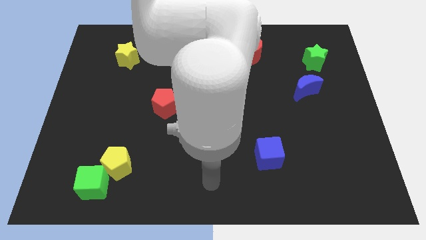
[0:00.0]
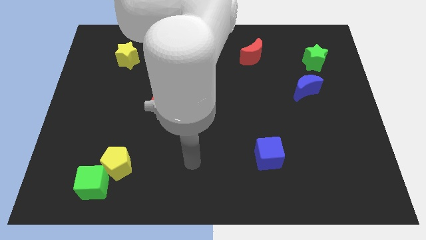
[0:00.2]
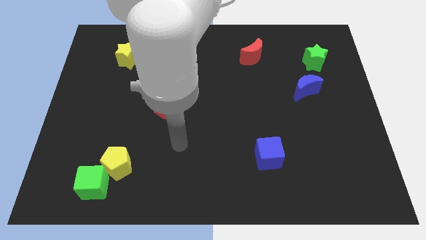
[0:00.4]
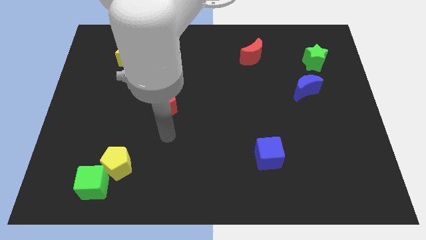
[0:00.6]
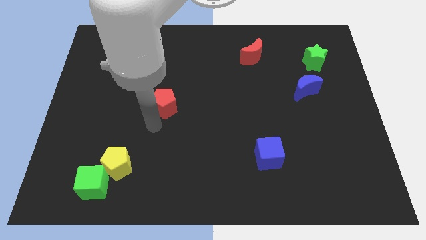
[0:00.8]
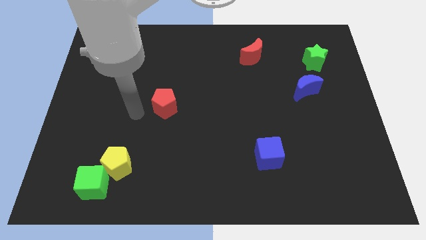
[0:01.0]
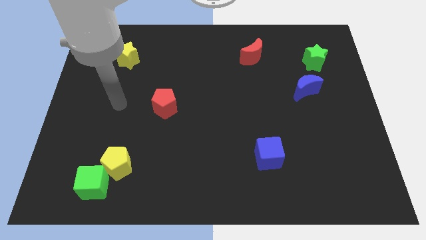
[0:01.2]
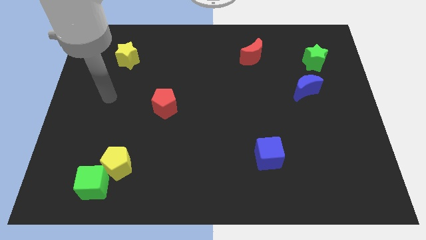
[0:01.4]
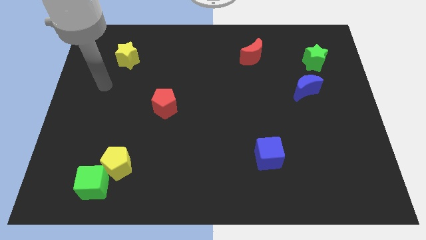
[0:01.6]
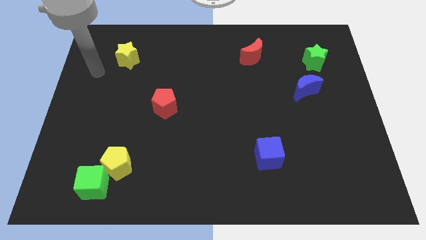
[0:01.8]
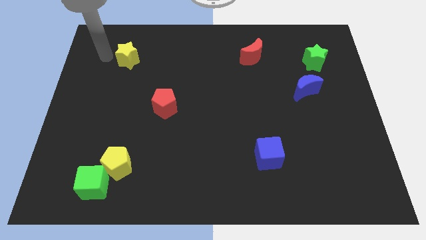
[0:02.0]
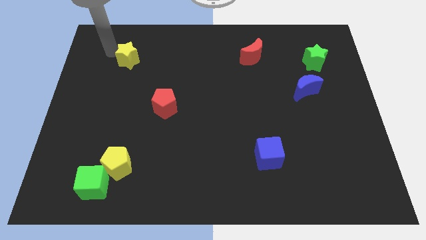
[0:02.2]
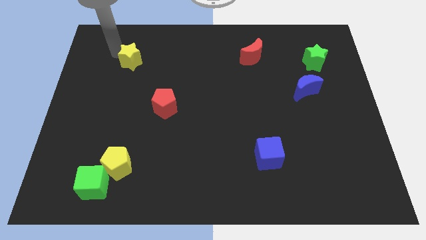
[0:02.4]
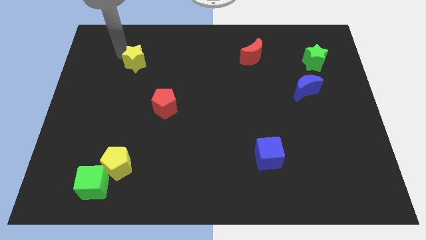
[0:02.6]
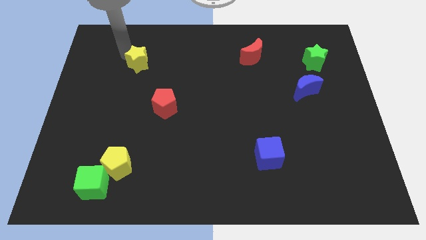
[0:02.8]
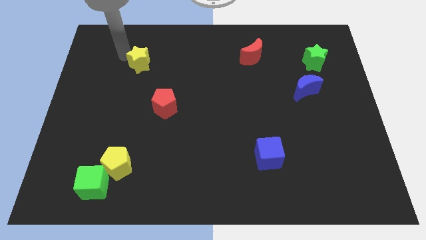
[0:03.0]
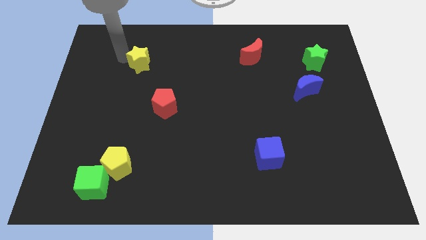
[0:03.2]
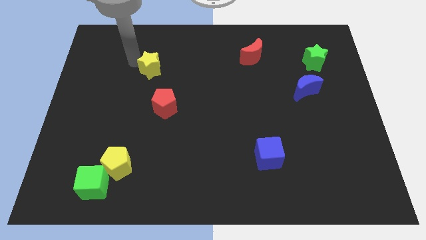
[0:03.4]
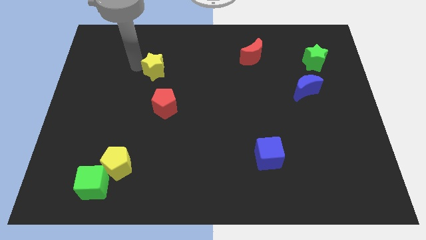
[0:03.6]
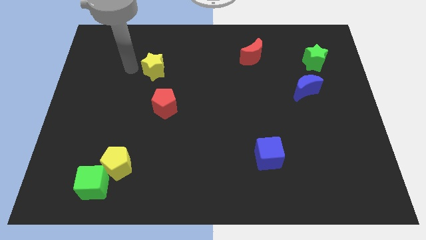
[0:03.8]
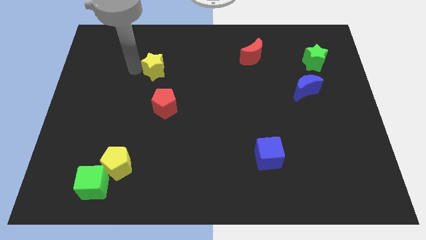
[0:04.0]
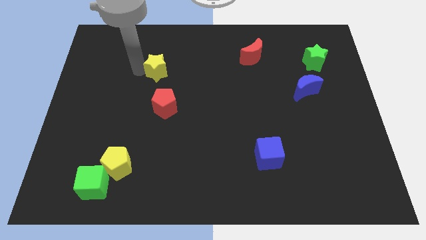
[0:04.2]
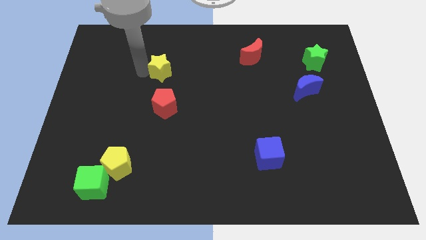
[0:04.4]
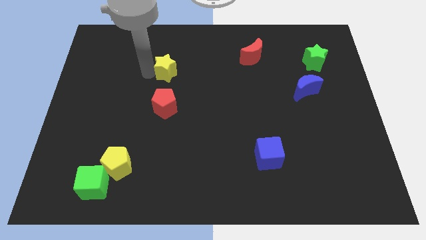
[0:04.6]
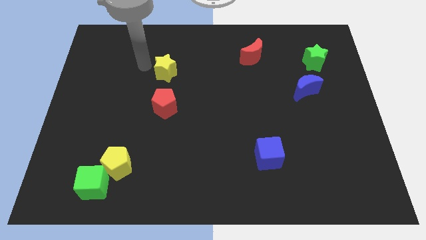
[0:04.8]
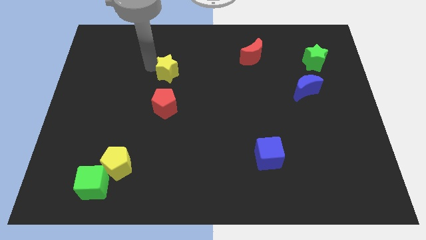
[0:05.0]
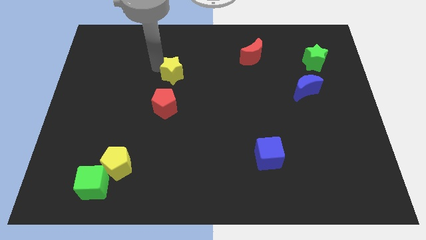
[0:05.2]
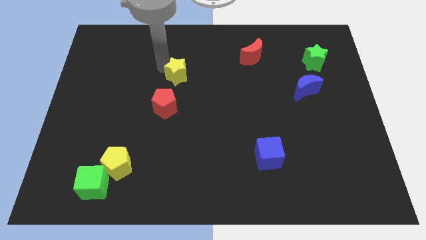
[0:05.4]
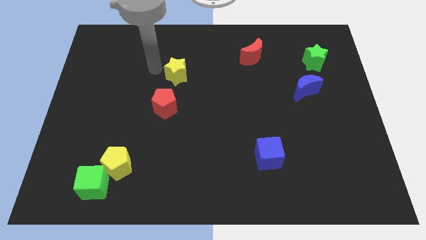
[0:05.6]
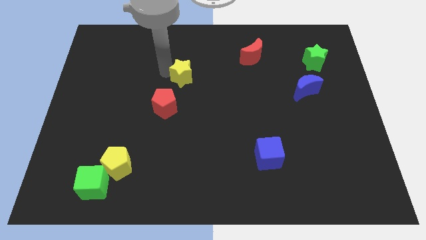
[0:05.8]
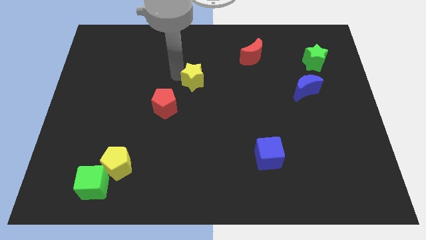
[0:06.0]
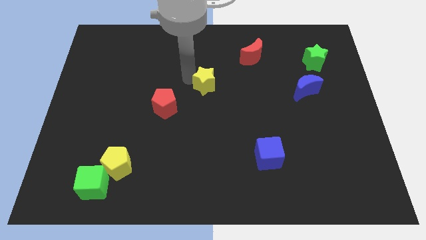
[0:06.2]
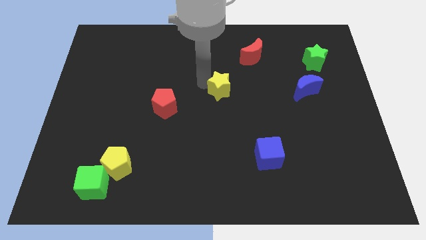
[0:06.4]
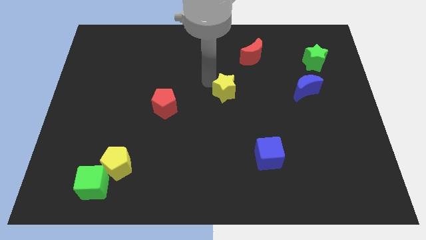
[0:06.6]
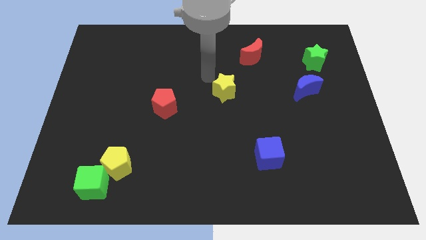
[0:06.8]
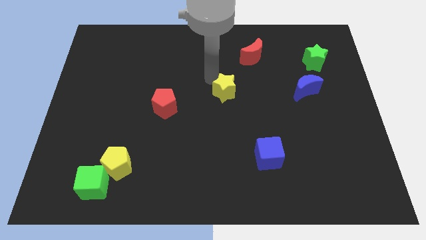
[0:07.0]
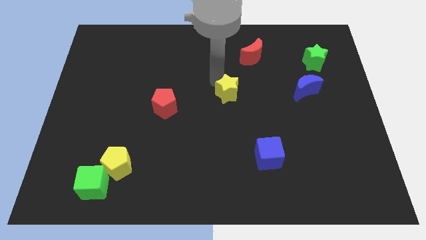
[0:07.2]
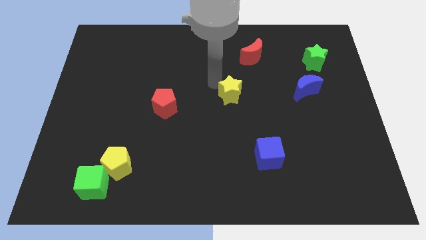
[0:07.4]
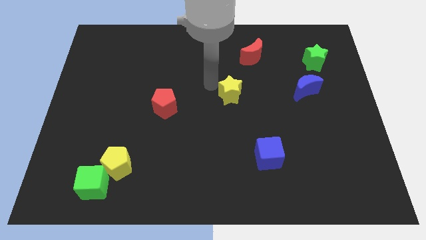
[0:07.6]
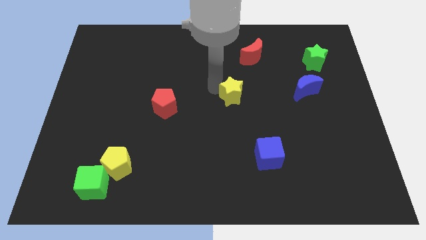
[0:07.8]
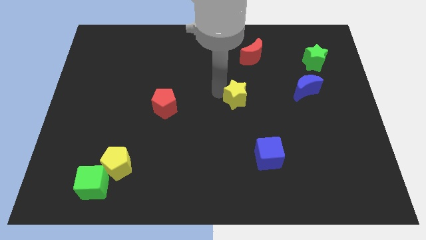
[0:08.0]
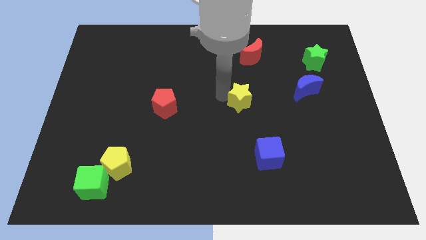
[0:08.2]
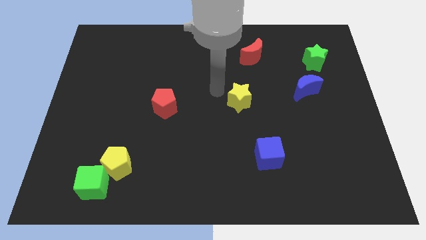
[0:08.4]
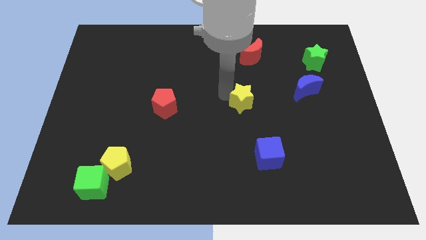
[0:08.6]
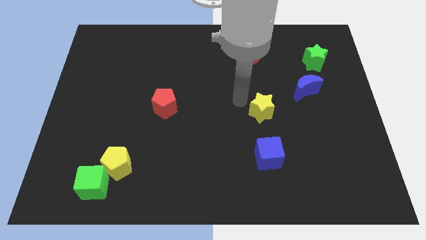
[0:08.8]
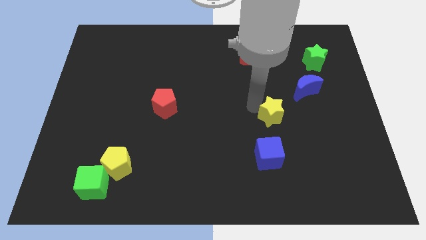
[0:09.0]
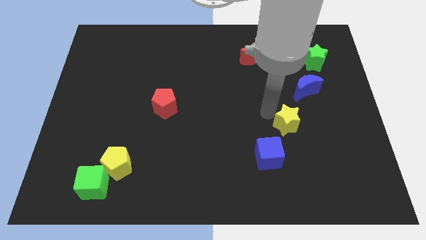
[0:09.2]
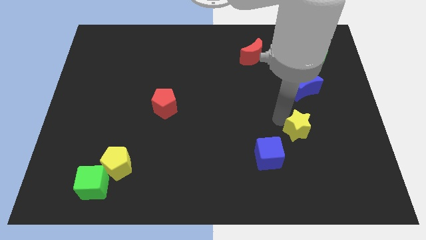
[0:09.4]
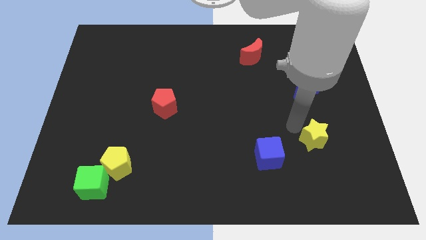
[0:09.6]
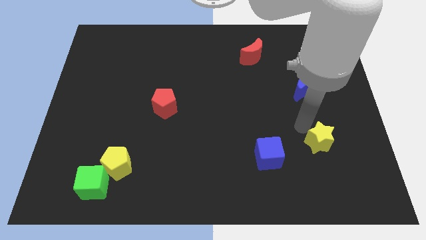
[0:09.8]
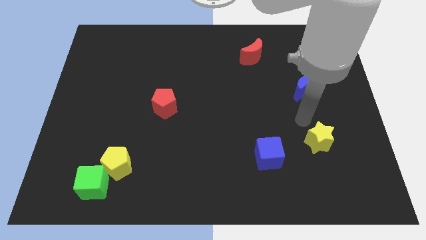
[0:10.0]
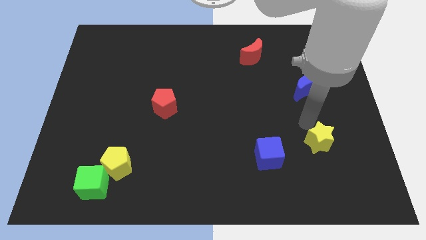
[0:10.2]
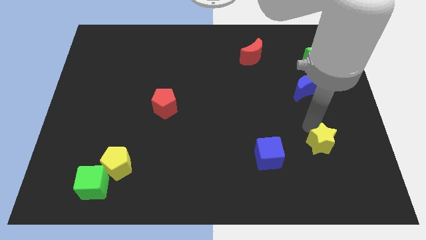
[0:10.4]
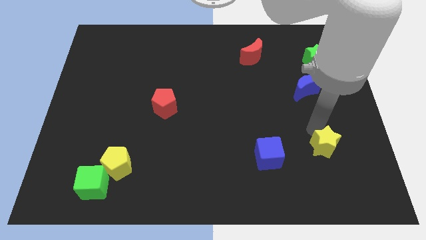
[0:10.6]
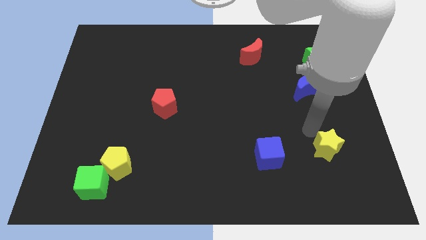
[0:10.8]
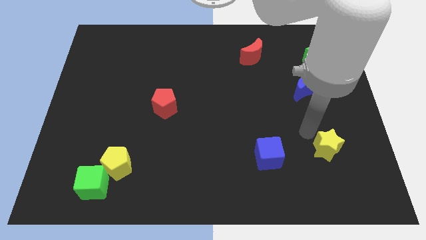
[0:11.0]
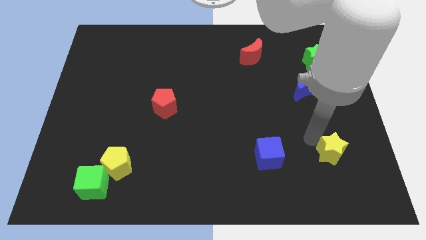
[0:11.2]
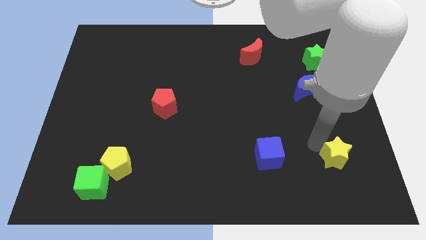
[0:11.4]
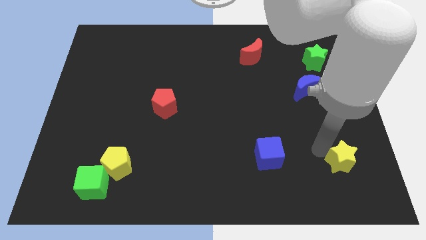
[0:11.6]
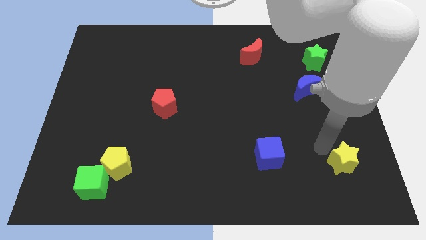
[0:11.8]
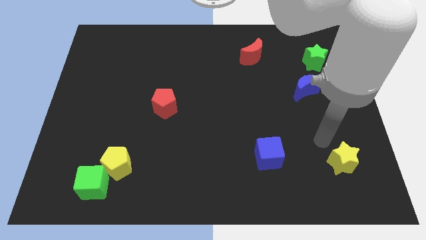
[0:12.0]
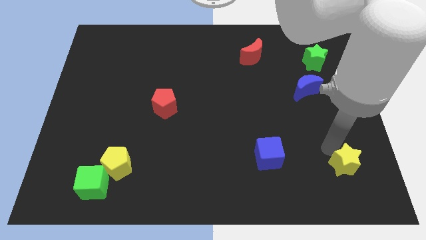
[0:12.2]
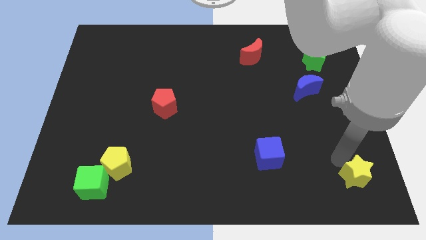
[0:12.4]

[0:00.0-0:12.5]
move the yellow star to the bottom right corner

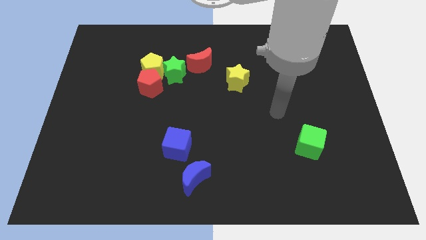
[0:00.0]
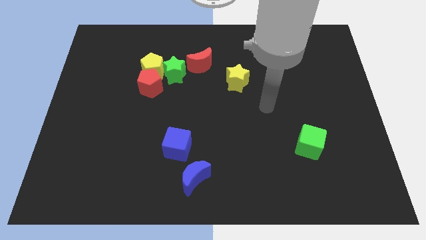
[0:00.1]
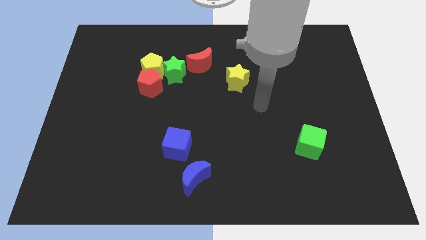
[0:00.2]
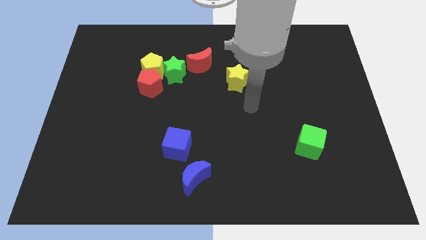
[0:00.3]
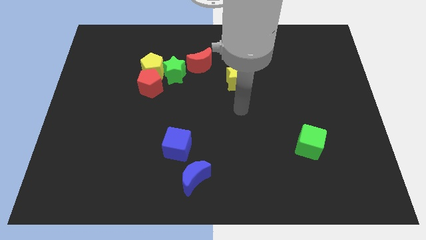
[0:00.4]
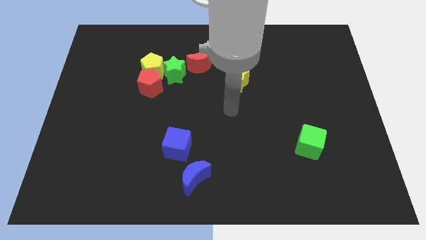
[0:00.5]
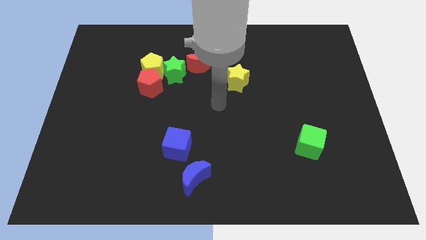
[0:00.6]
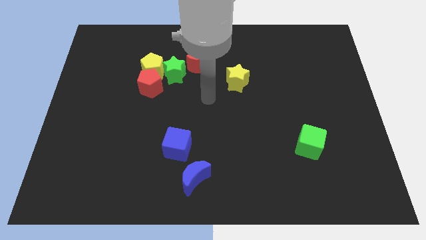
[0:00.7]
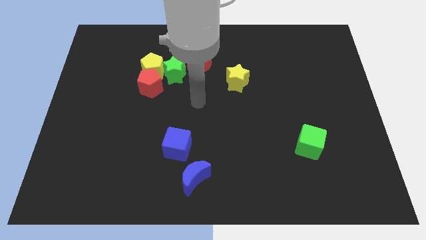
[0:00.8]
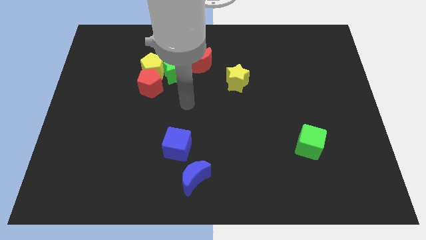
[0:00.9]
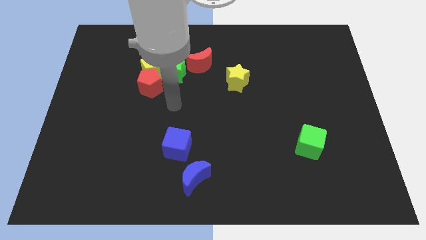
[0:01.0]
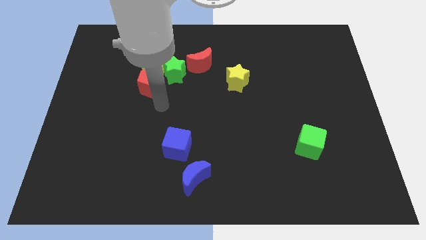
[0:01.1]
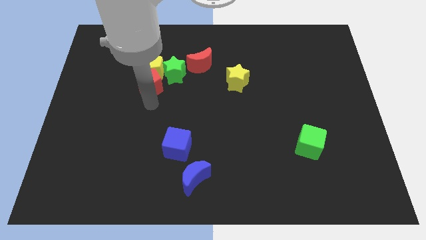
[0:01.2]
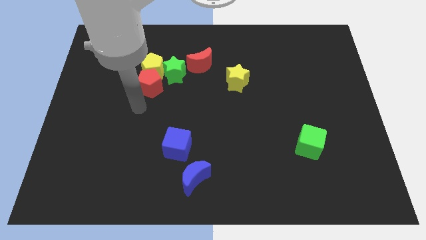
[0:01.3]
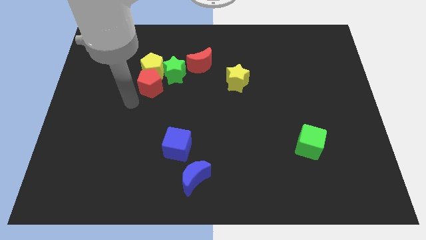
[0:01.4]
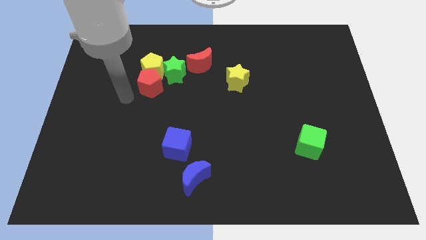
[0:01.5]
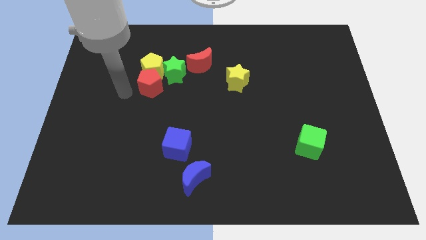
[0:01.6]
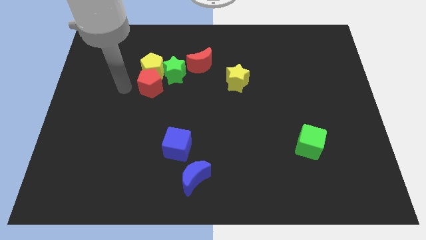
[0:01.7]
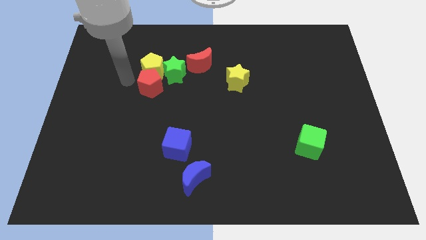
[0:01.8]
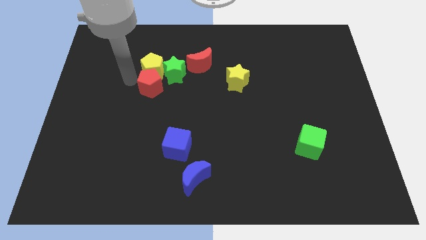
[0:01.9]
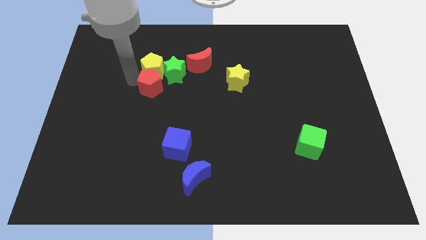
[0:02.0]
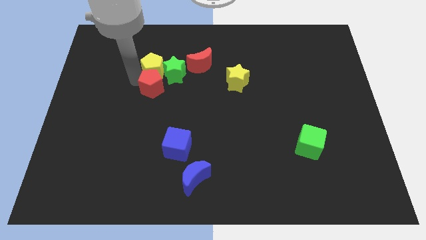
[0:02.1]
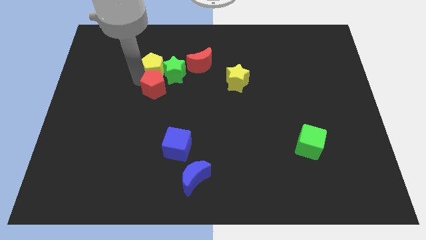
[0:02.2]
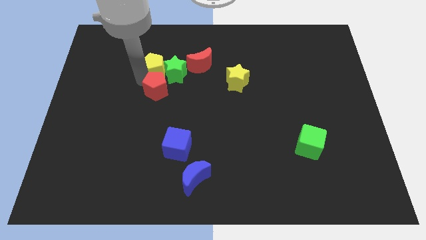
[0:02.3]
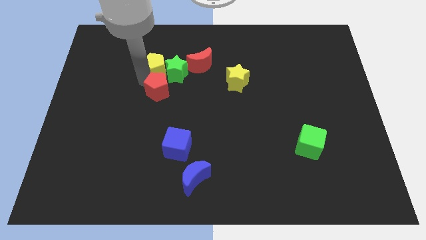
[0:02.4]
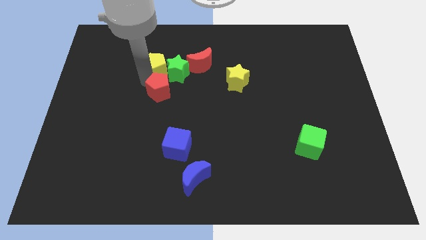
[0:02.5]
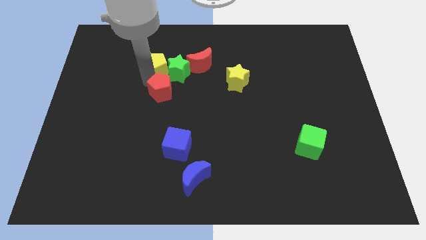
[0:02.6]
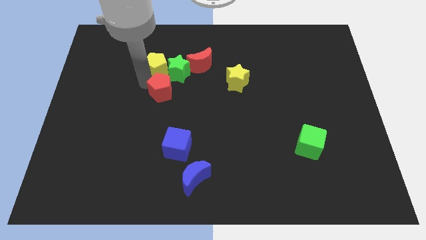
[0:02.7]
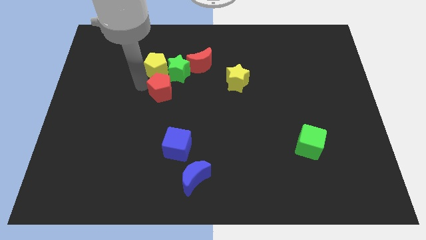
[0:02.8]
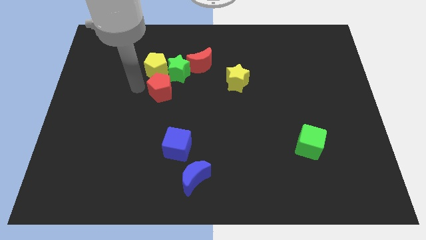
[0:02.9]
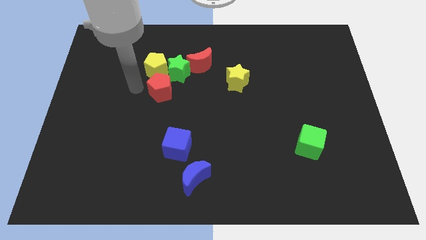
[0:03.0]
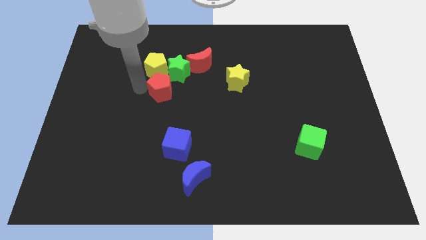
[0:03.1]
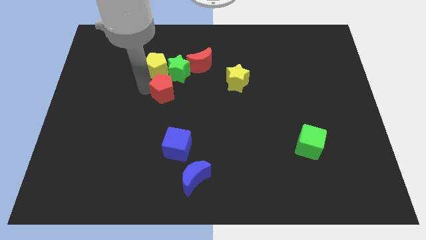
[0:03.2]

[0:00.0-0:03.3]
put the red pentagon to the center
